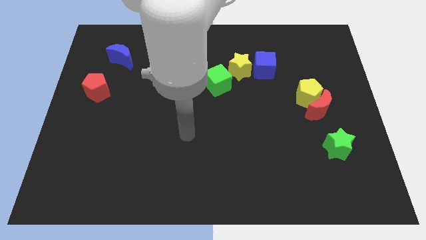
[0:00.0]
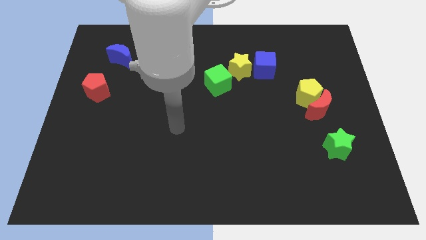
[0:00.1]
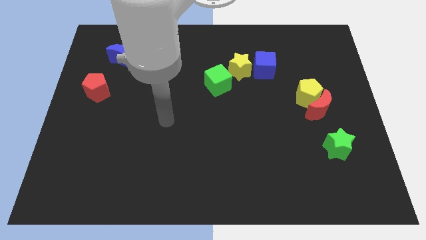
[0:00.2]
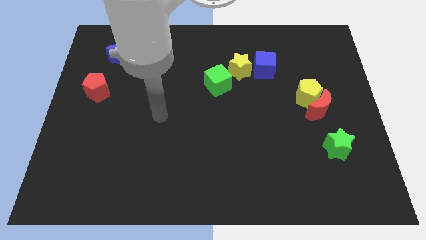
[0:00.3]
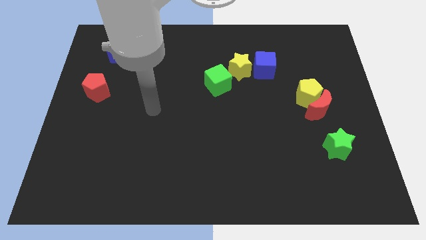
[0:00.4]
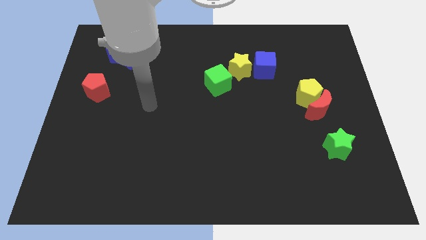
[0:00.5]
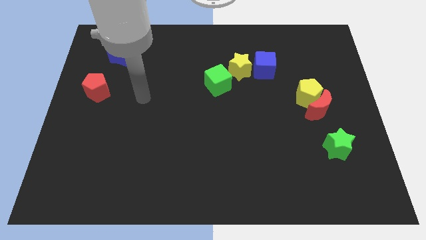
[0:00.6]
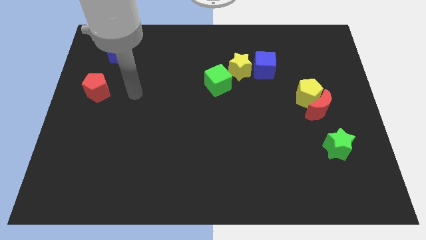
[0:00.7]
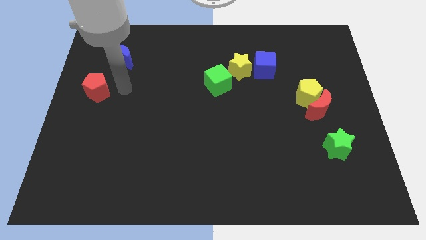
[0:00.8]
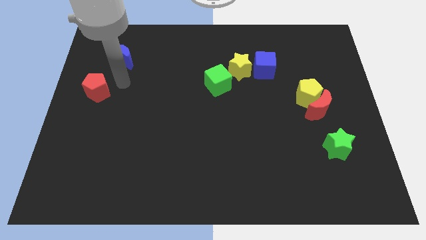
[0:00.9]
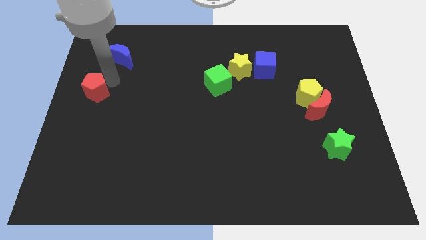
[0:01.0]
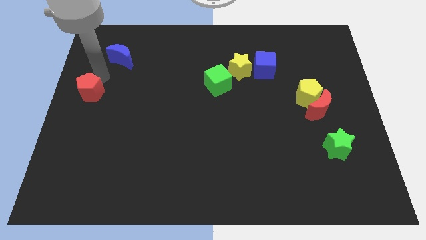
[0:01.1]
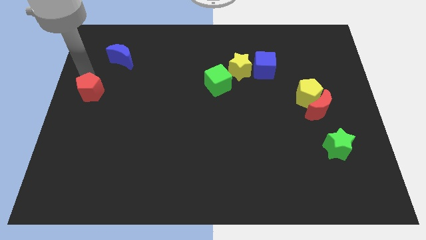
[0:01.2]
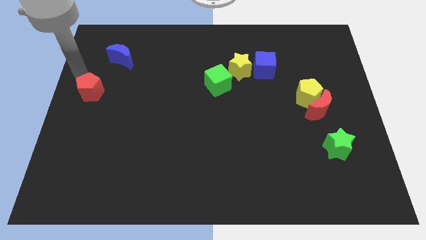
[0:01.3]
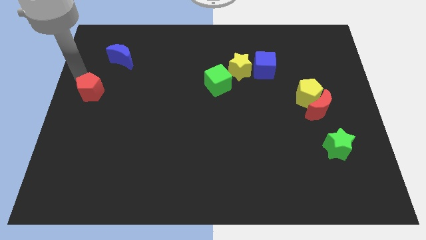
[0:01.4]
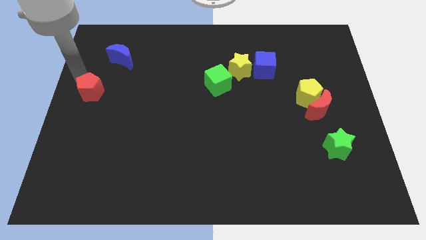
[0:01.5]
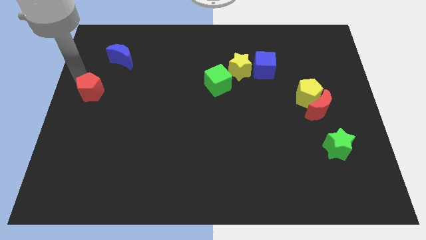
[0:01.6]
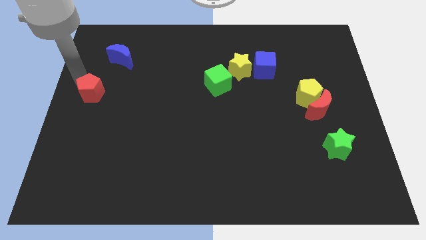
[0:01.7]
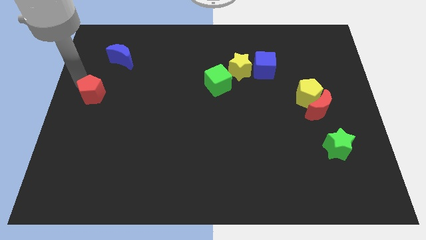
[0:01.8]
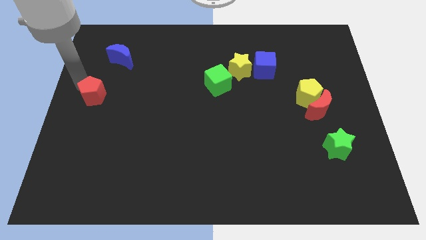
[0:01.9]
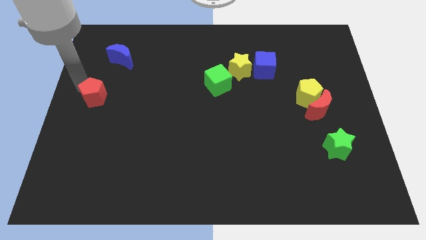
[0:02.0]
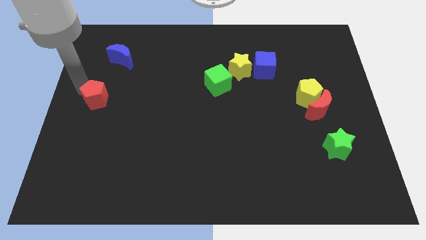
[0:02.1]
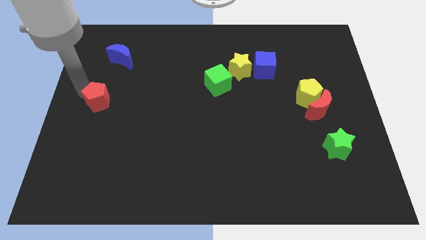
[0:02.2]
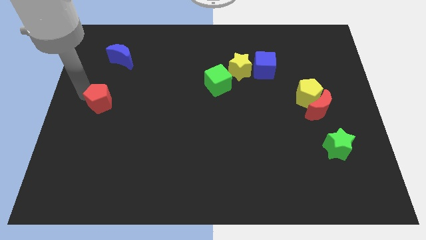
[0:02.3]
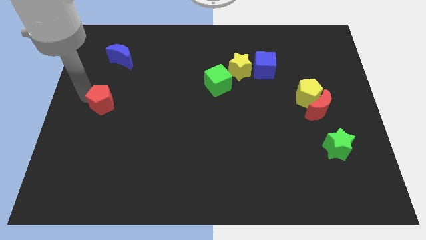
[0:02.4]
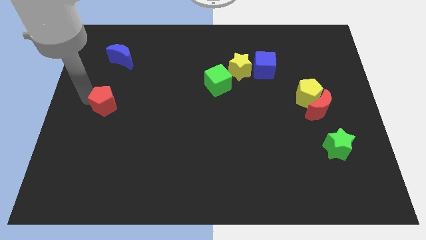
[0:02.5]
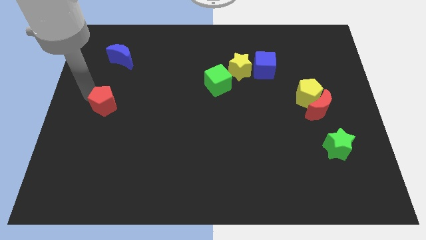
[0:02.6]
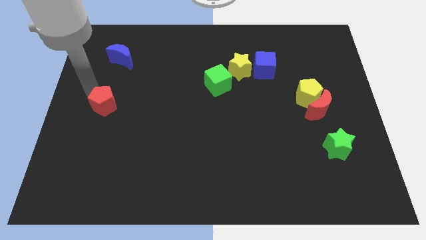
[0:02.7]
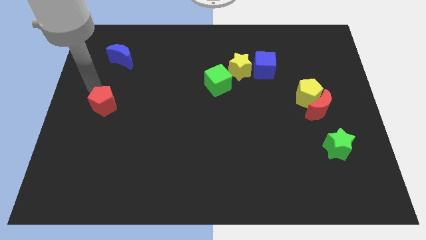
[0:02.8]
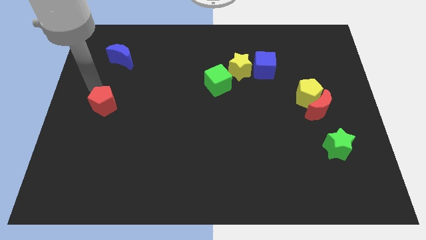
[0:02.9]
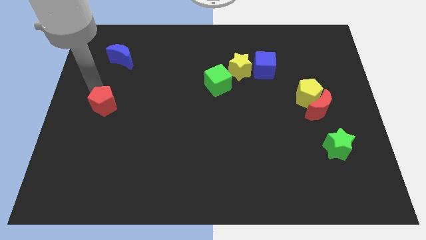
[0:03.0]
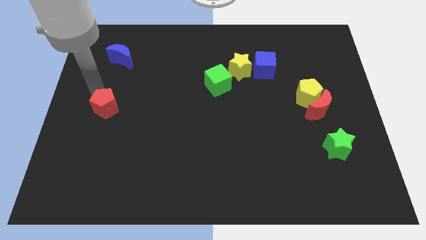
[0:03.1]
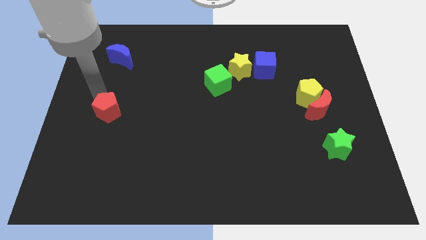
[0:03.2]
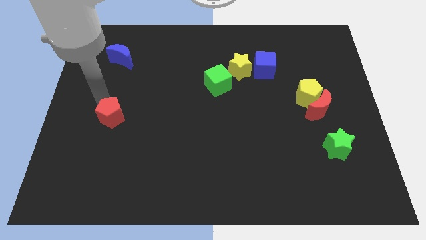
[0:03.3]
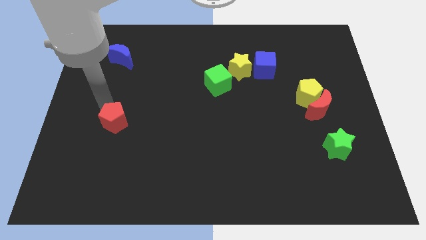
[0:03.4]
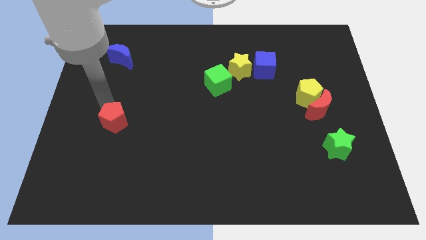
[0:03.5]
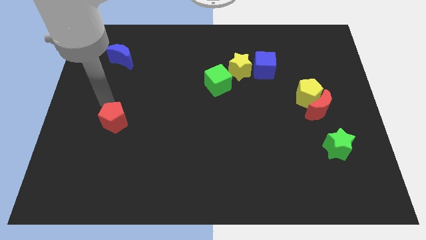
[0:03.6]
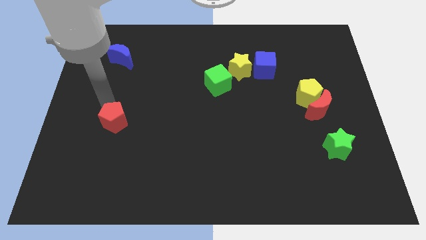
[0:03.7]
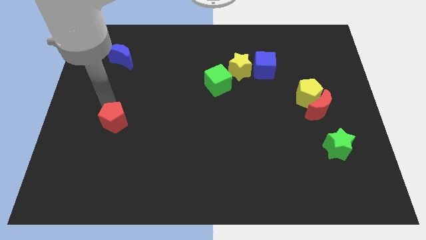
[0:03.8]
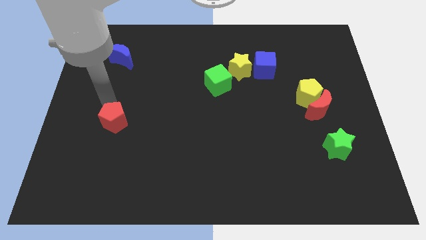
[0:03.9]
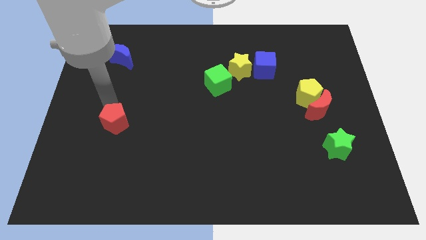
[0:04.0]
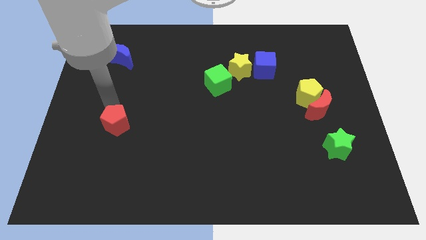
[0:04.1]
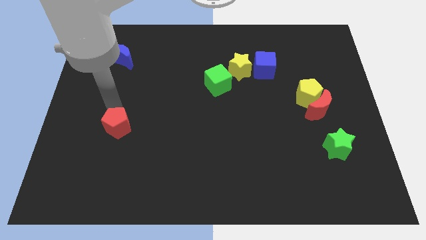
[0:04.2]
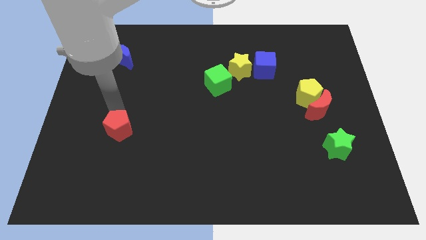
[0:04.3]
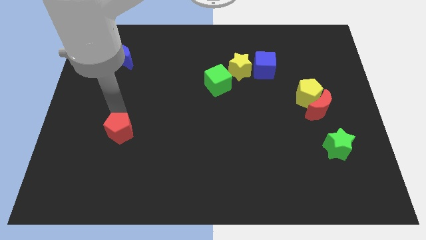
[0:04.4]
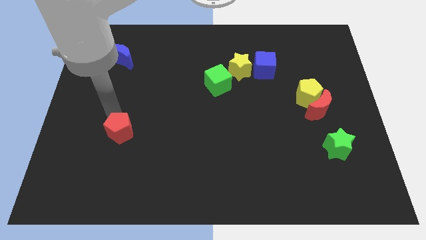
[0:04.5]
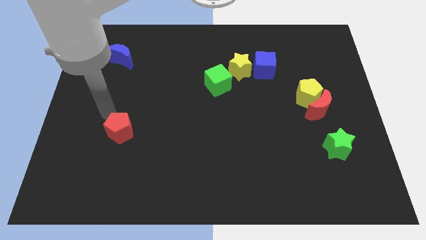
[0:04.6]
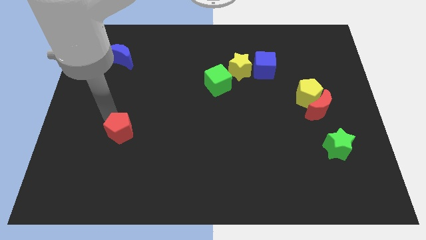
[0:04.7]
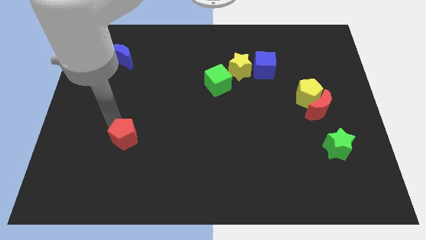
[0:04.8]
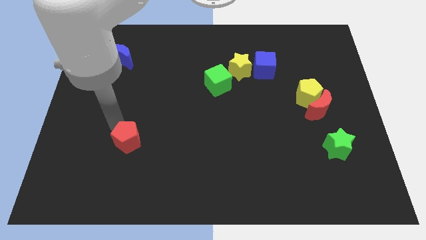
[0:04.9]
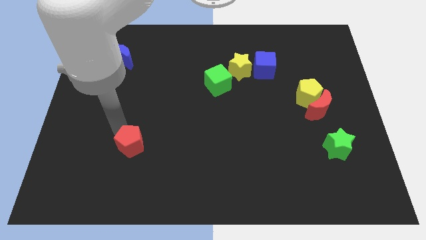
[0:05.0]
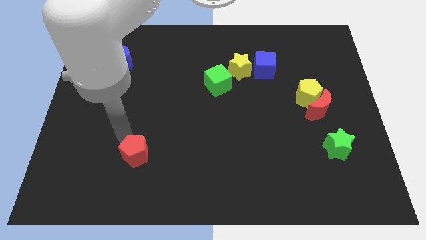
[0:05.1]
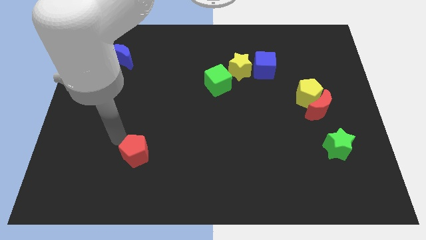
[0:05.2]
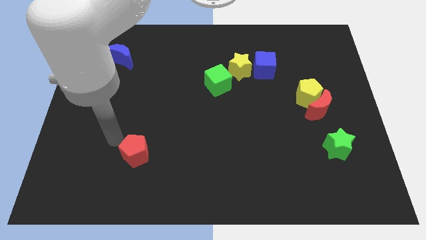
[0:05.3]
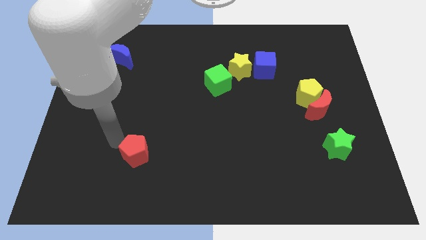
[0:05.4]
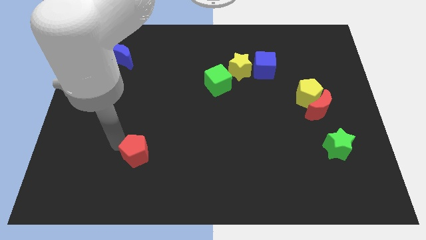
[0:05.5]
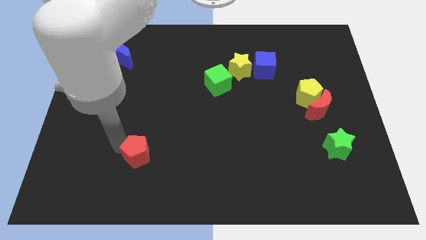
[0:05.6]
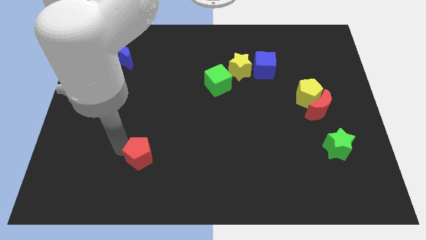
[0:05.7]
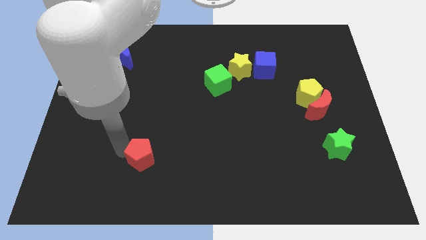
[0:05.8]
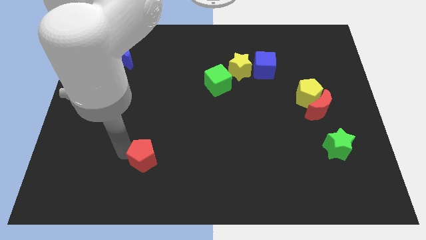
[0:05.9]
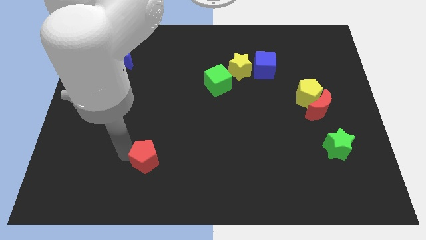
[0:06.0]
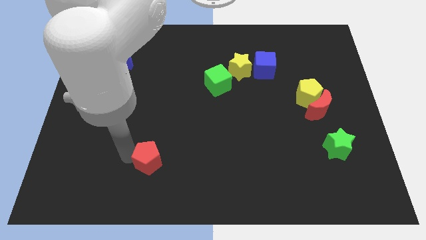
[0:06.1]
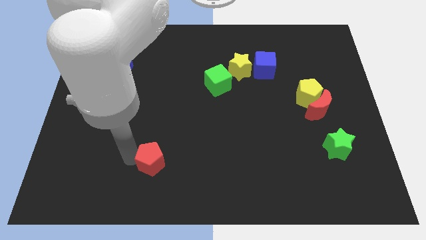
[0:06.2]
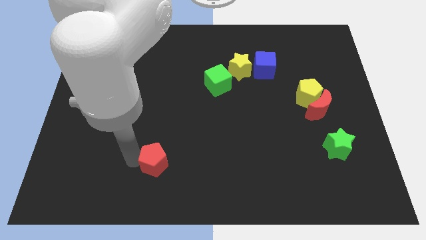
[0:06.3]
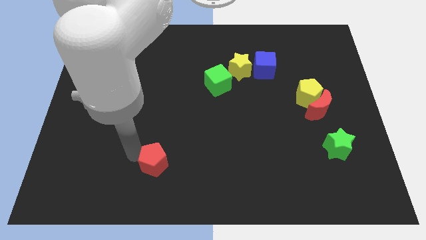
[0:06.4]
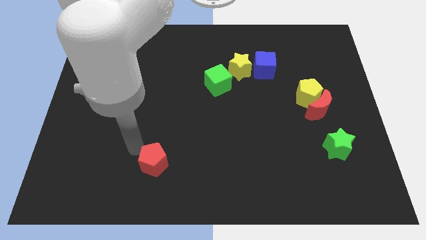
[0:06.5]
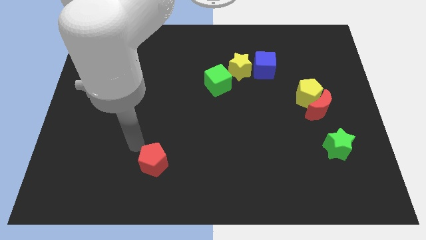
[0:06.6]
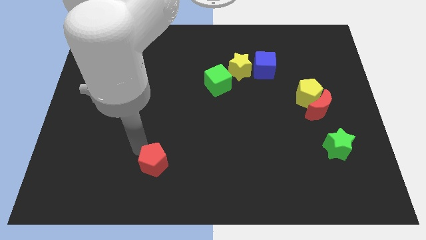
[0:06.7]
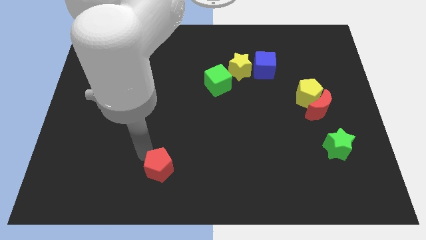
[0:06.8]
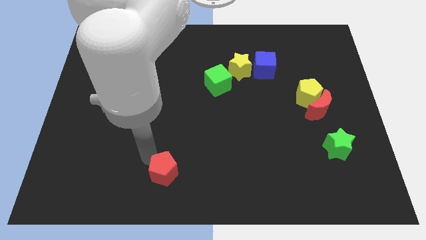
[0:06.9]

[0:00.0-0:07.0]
push the red pentagon to the bottom
